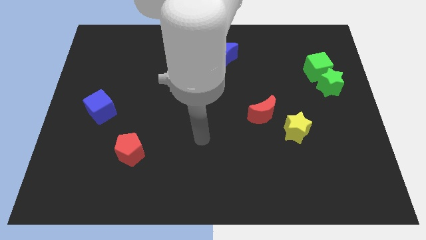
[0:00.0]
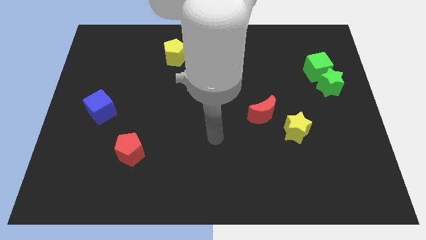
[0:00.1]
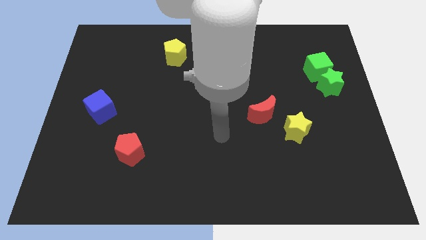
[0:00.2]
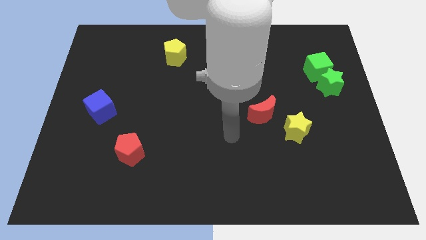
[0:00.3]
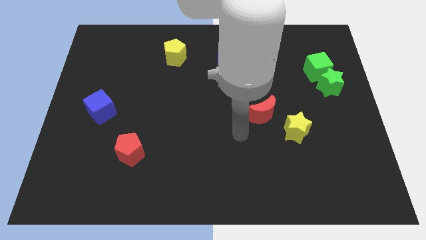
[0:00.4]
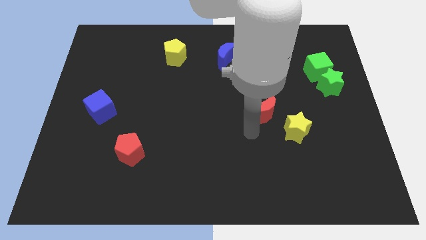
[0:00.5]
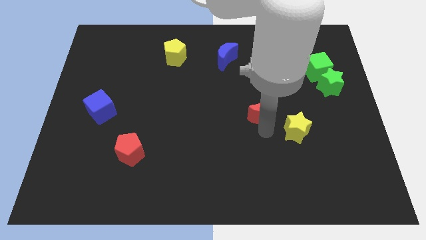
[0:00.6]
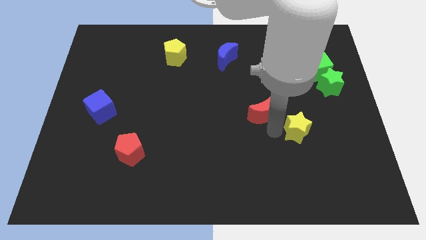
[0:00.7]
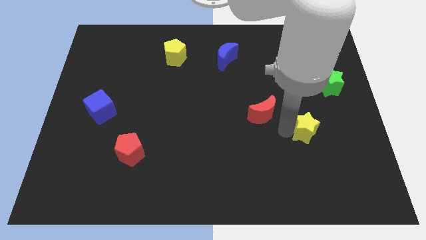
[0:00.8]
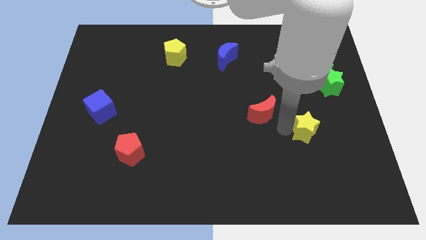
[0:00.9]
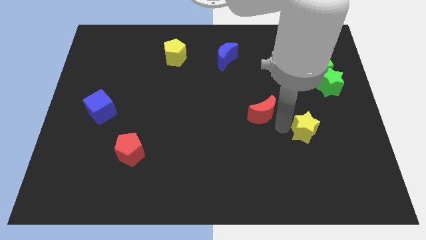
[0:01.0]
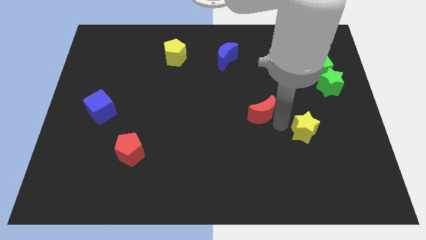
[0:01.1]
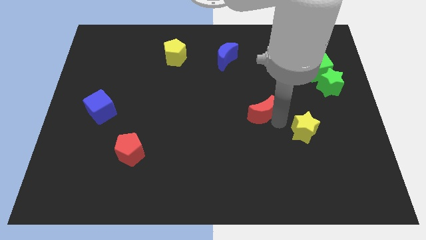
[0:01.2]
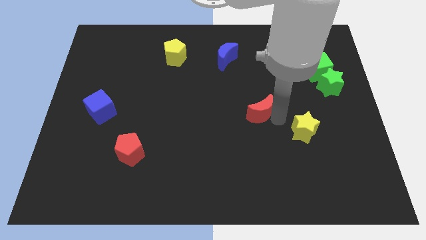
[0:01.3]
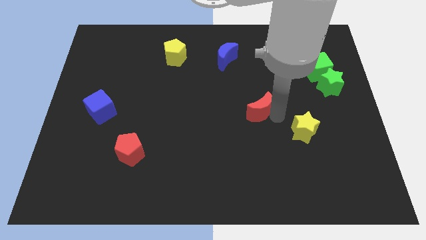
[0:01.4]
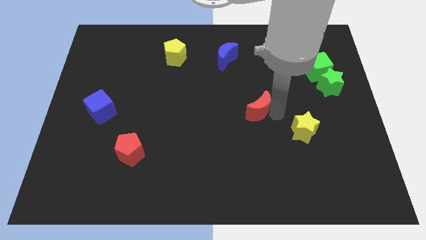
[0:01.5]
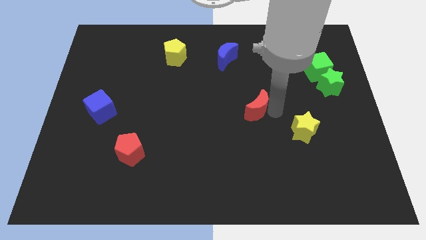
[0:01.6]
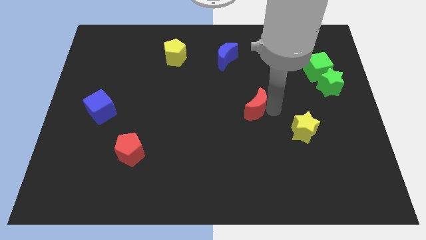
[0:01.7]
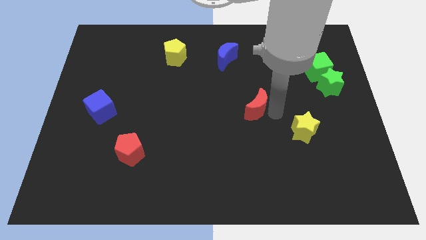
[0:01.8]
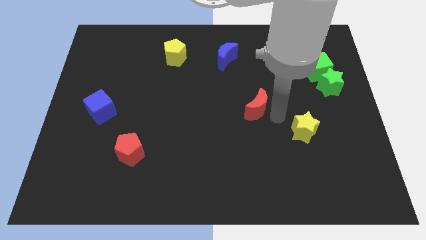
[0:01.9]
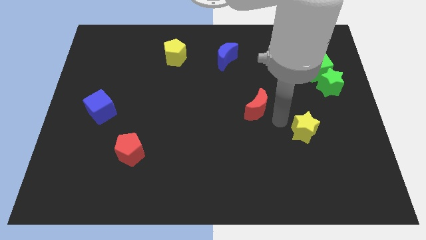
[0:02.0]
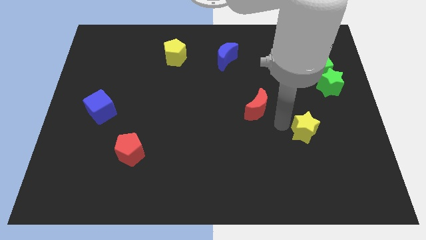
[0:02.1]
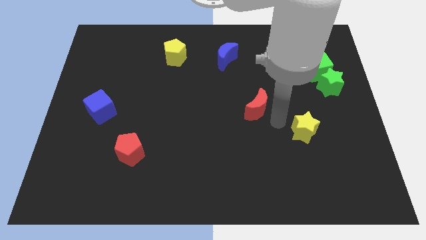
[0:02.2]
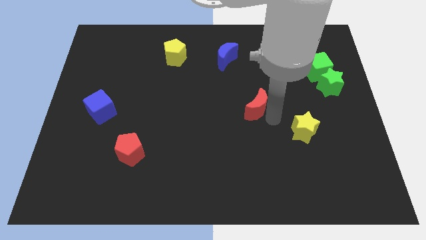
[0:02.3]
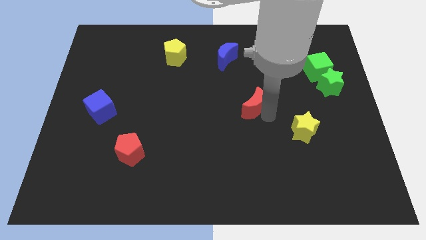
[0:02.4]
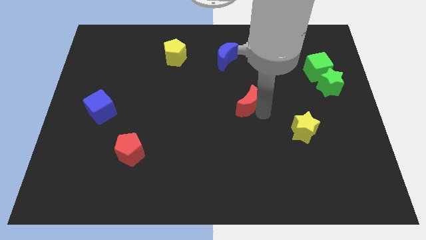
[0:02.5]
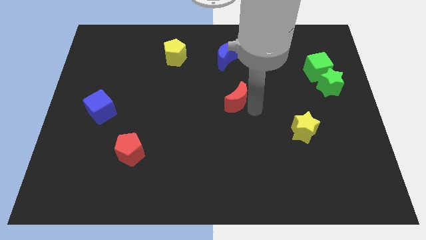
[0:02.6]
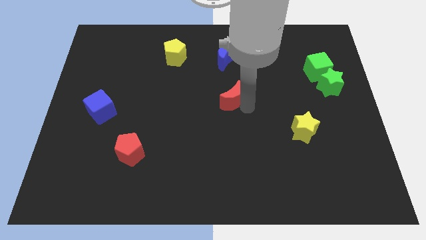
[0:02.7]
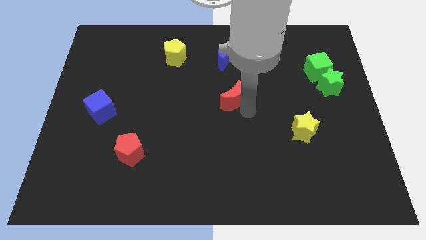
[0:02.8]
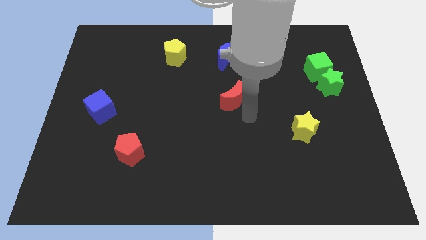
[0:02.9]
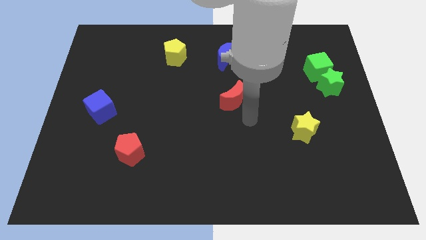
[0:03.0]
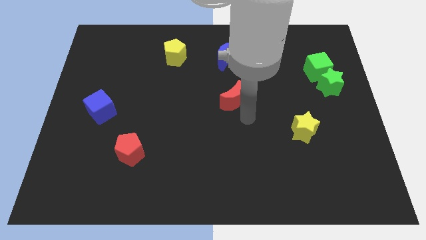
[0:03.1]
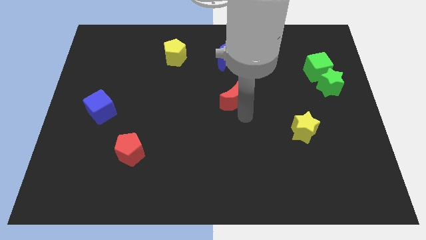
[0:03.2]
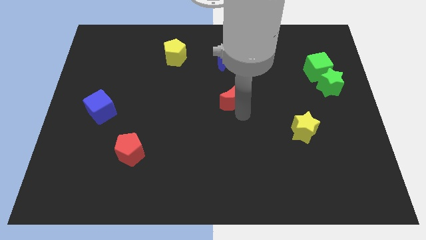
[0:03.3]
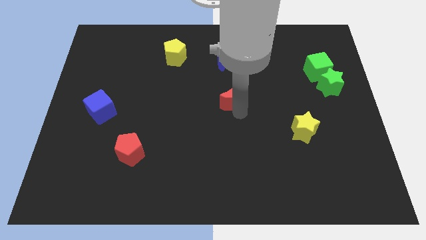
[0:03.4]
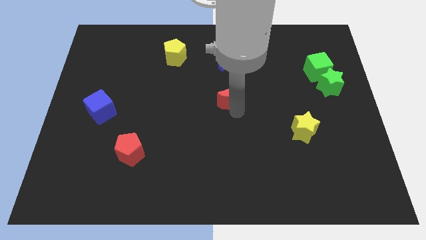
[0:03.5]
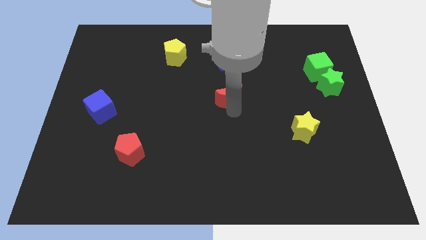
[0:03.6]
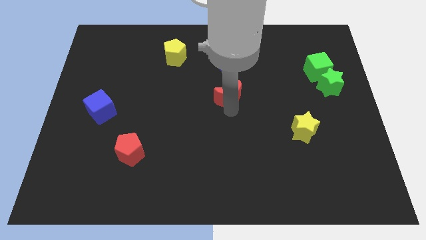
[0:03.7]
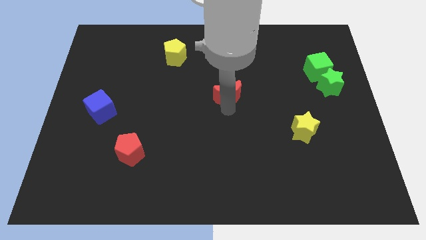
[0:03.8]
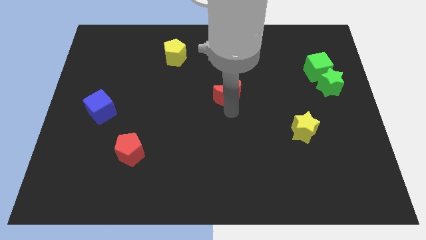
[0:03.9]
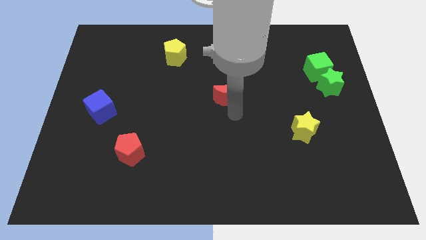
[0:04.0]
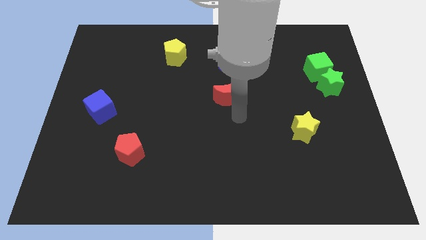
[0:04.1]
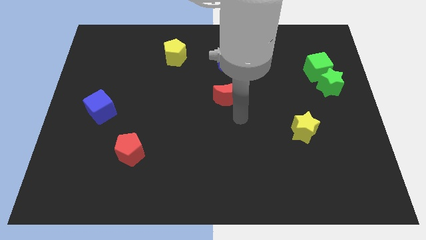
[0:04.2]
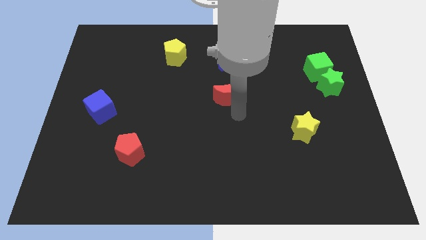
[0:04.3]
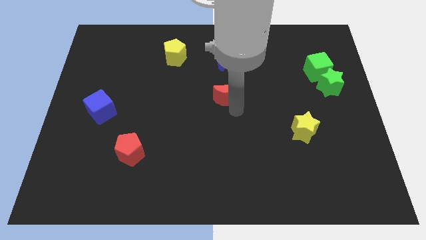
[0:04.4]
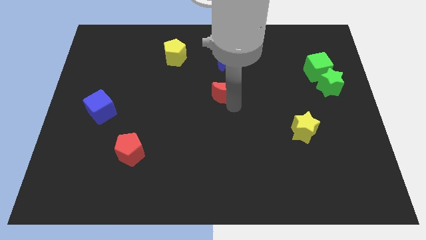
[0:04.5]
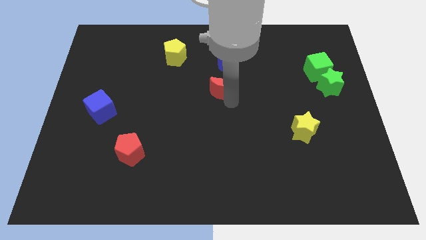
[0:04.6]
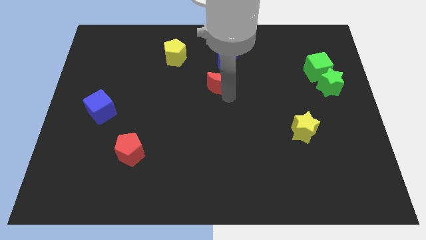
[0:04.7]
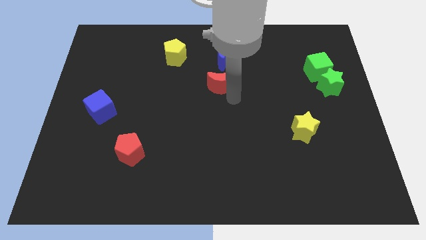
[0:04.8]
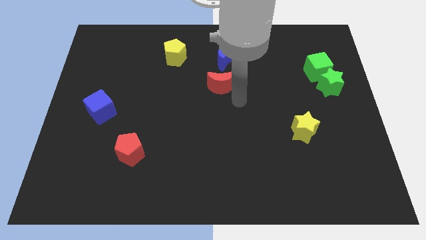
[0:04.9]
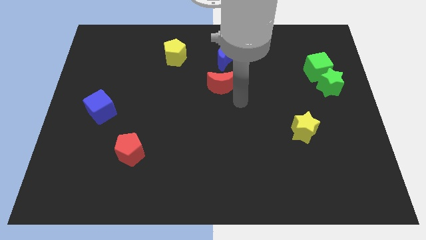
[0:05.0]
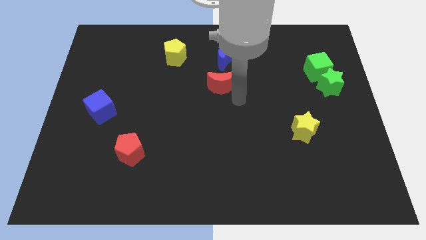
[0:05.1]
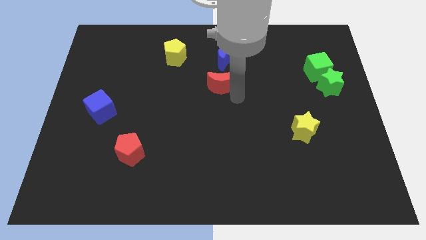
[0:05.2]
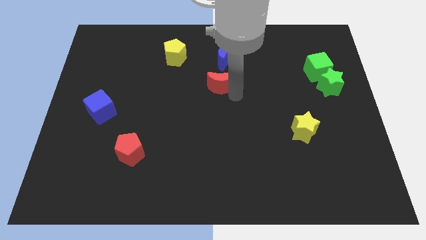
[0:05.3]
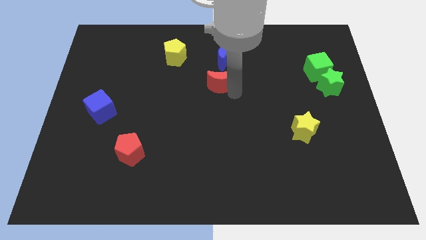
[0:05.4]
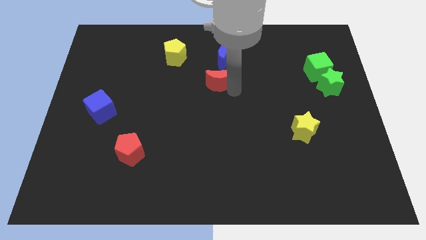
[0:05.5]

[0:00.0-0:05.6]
slide the red moon diagonally down and to the left of the blue moon

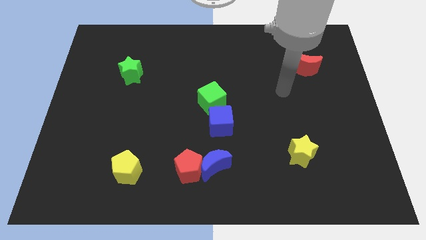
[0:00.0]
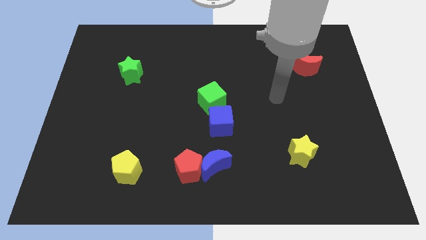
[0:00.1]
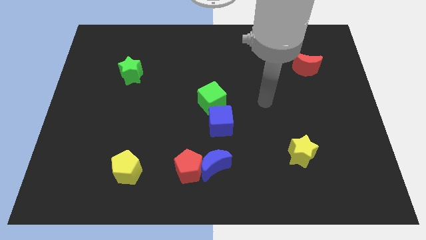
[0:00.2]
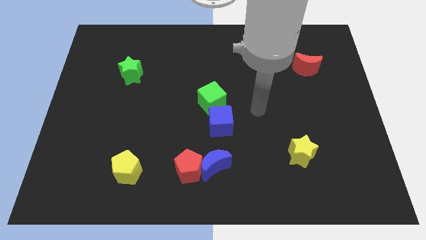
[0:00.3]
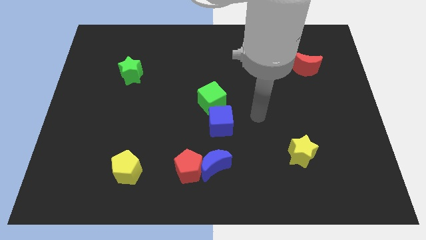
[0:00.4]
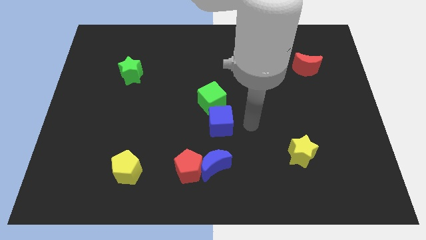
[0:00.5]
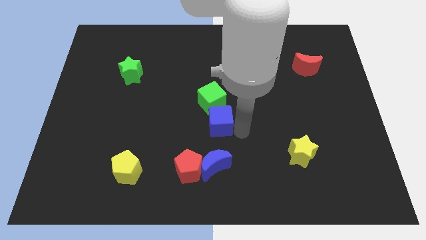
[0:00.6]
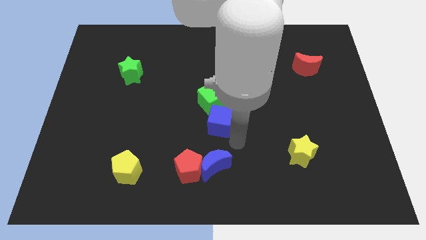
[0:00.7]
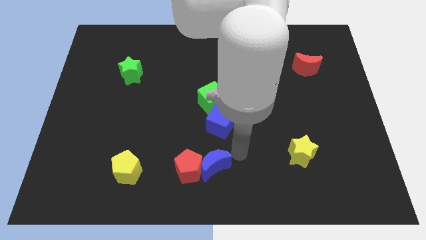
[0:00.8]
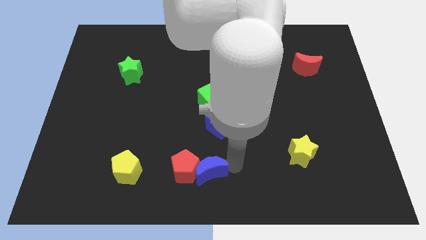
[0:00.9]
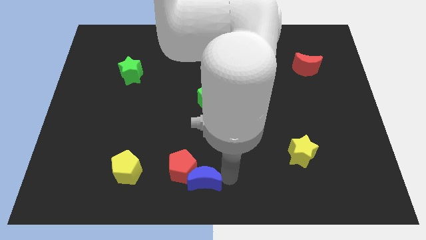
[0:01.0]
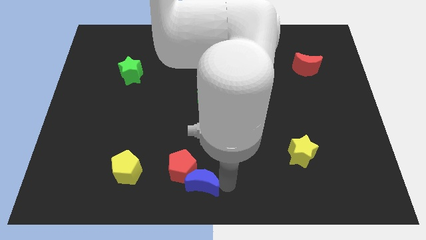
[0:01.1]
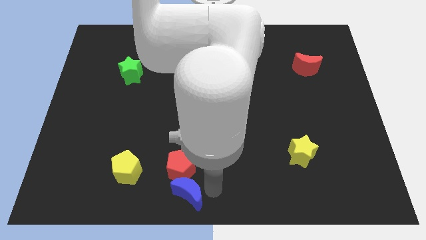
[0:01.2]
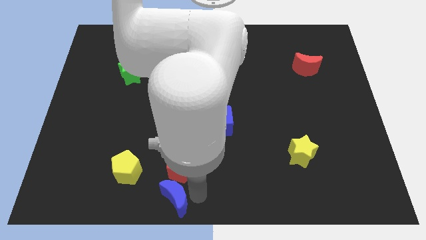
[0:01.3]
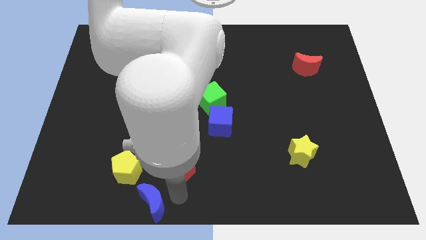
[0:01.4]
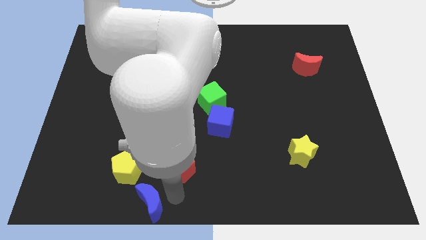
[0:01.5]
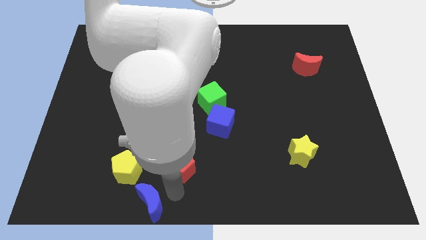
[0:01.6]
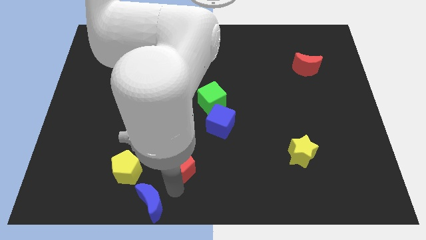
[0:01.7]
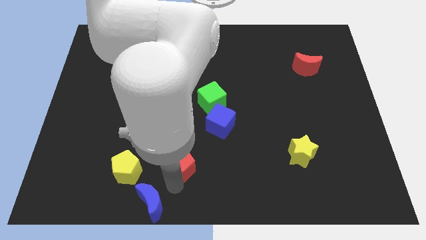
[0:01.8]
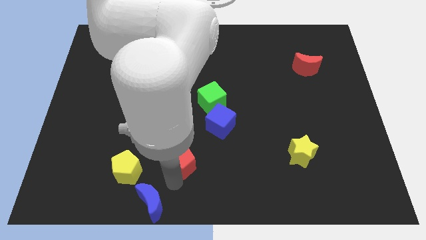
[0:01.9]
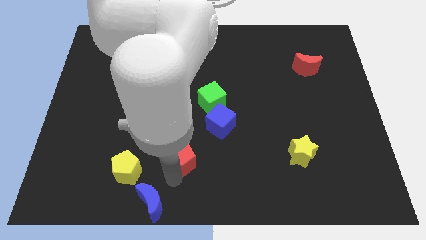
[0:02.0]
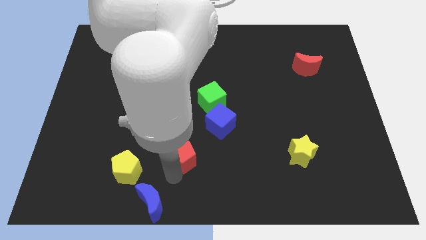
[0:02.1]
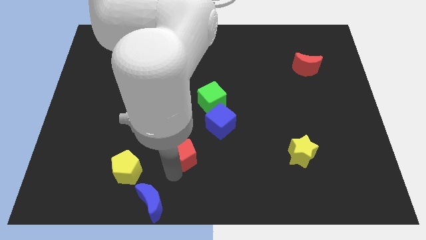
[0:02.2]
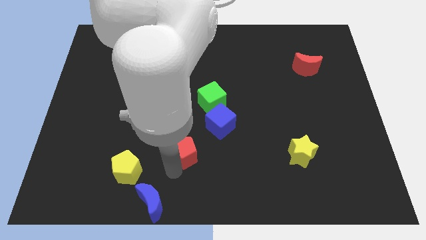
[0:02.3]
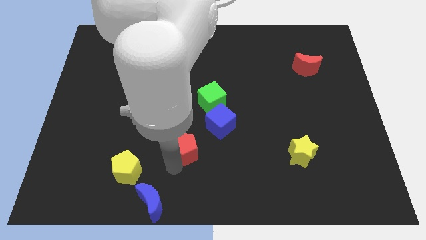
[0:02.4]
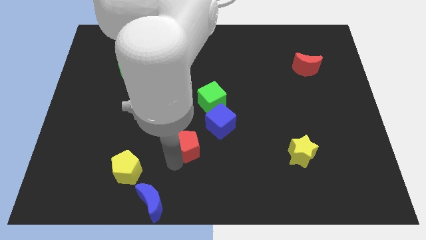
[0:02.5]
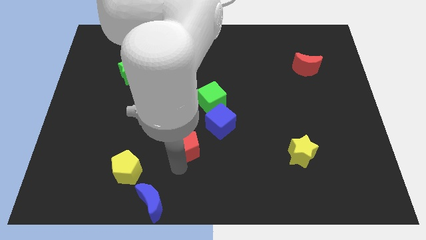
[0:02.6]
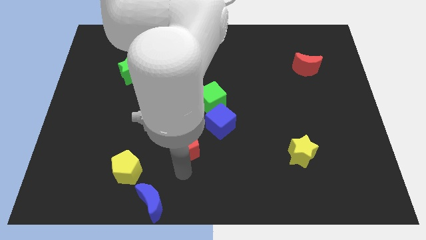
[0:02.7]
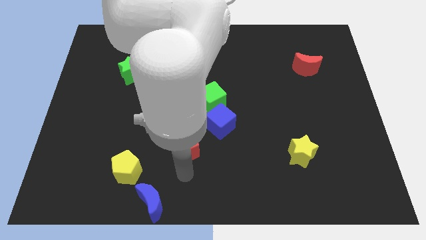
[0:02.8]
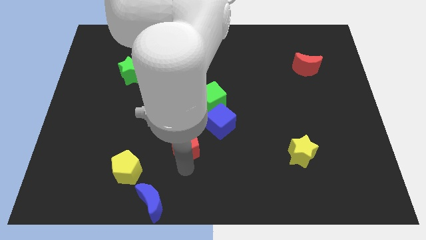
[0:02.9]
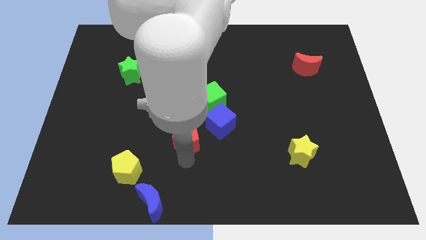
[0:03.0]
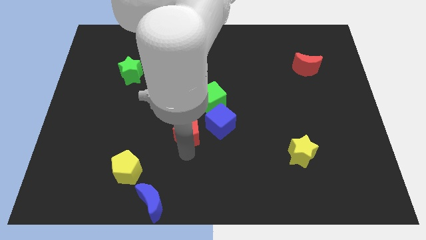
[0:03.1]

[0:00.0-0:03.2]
push the red pentagon to the bottom left side of the green cube
